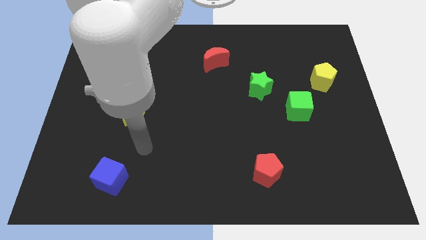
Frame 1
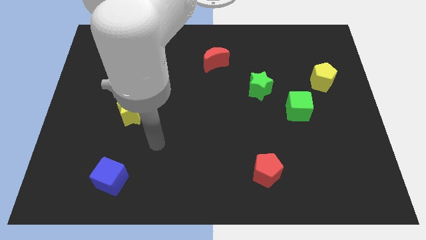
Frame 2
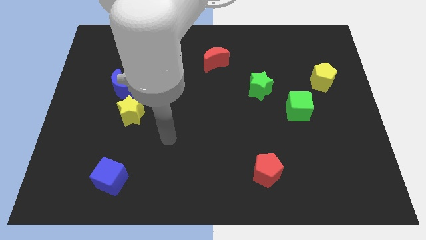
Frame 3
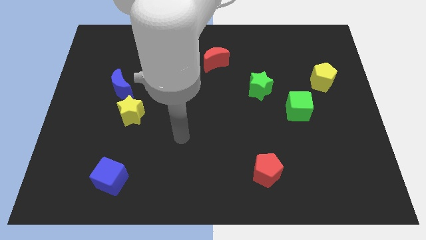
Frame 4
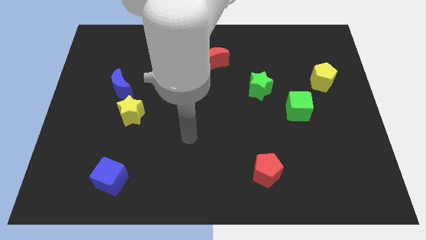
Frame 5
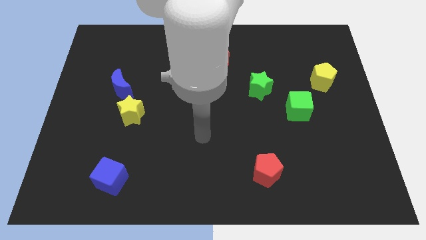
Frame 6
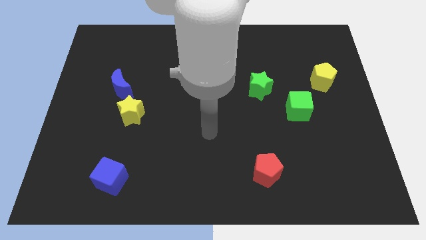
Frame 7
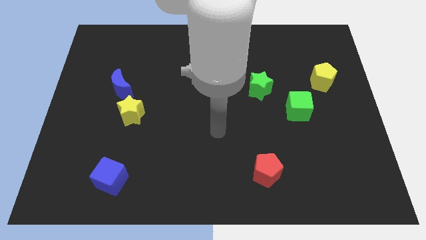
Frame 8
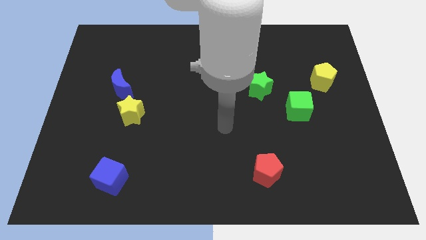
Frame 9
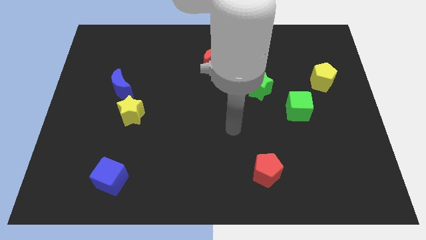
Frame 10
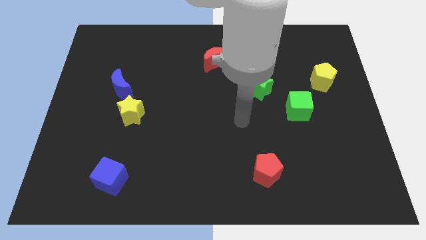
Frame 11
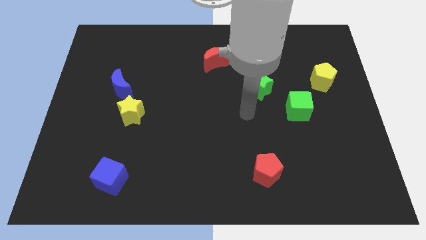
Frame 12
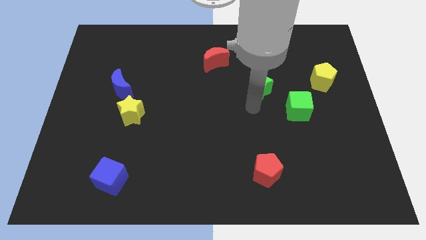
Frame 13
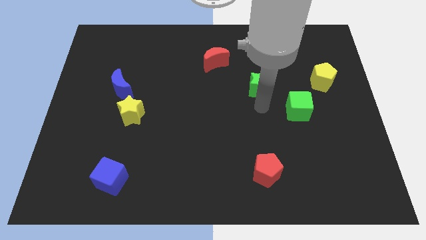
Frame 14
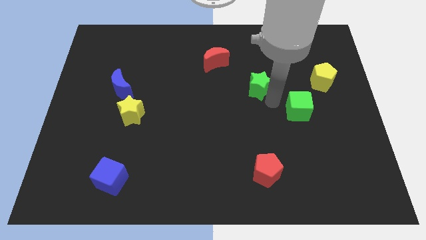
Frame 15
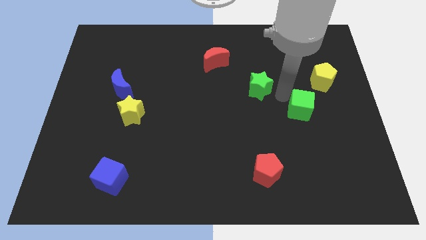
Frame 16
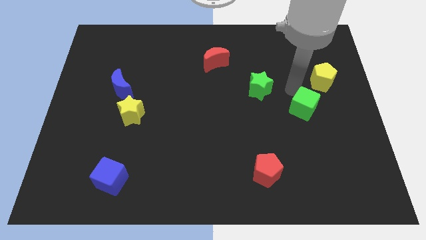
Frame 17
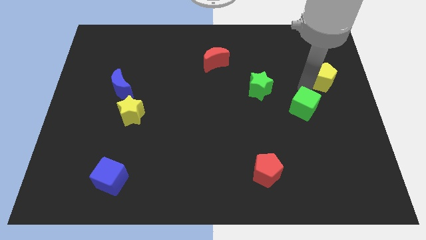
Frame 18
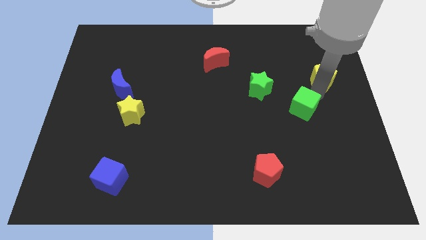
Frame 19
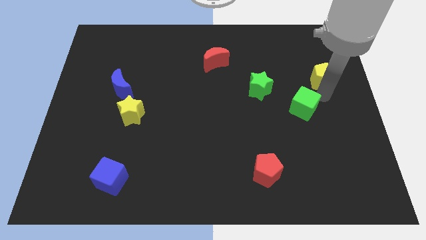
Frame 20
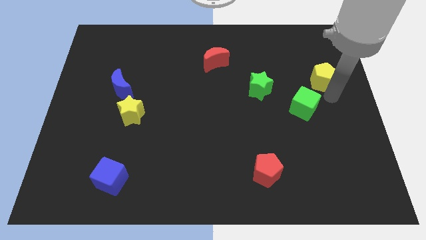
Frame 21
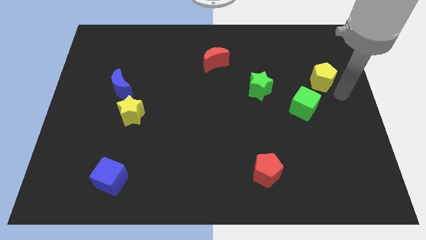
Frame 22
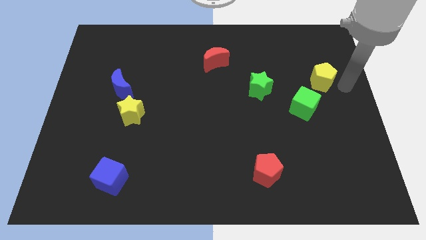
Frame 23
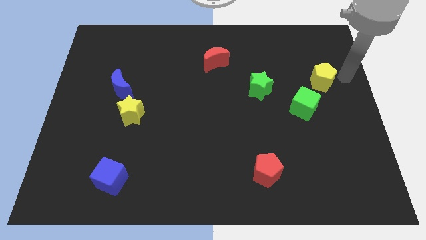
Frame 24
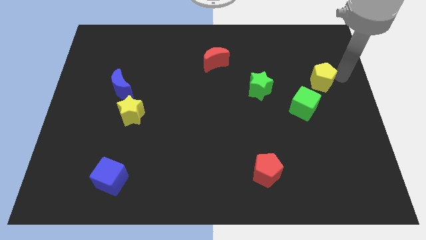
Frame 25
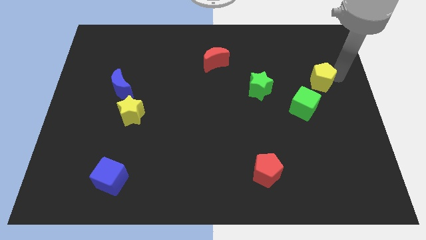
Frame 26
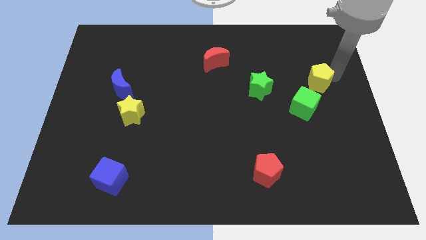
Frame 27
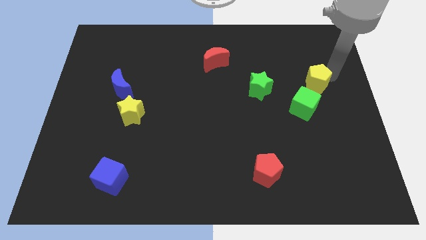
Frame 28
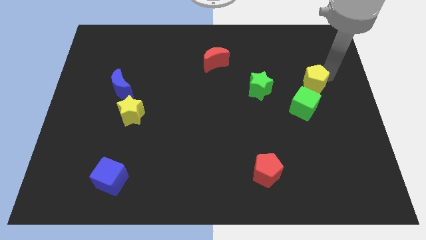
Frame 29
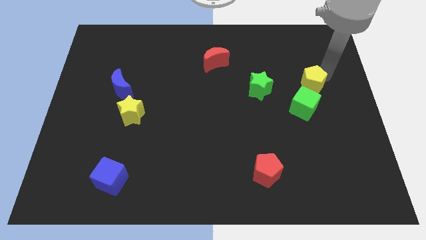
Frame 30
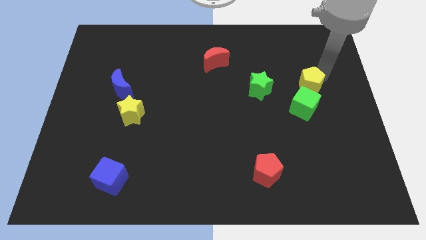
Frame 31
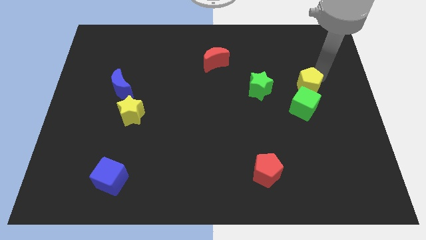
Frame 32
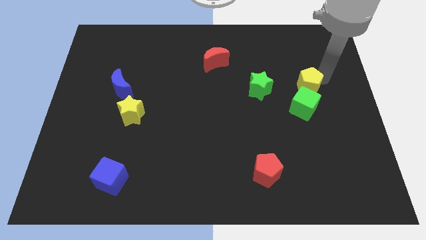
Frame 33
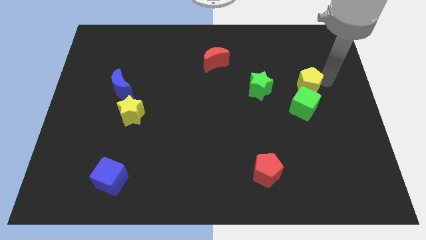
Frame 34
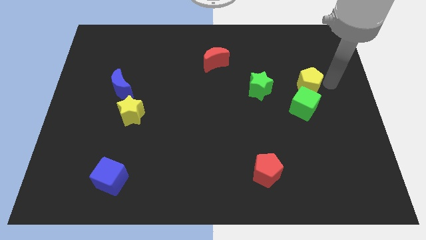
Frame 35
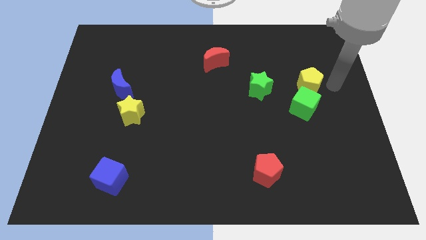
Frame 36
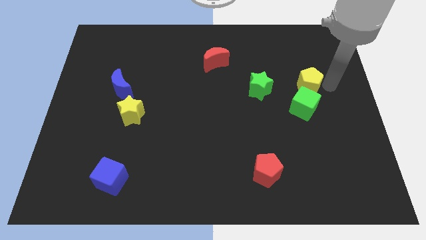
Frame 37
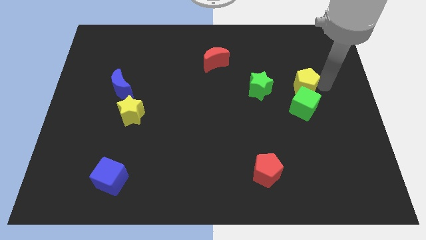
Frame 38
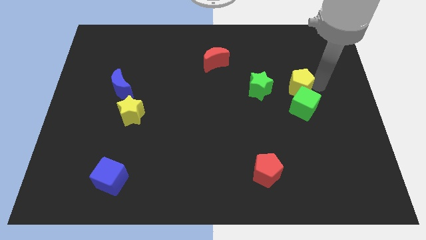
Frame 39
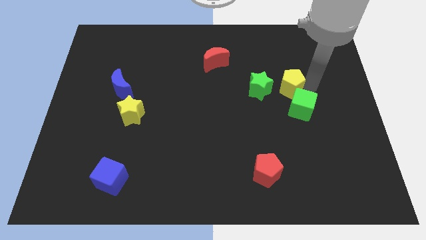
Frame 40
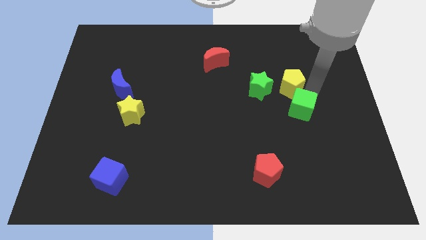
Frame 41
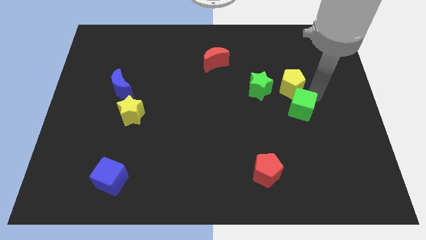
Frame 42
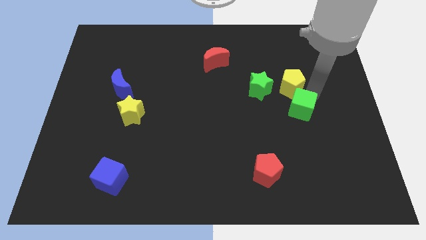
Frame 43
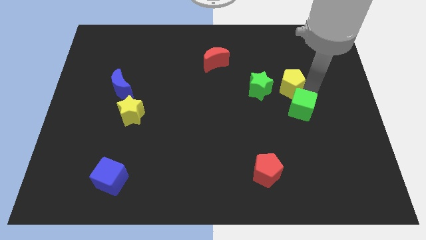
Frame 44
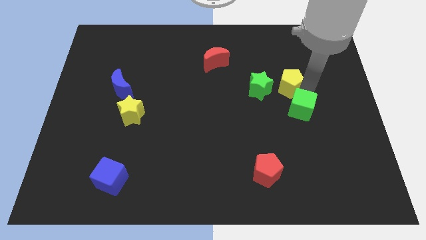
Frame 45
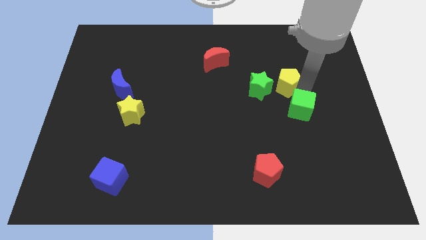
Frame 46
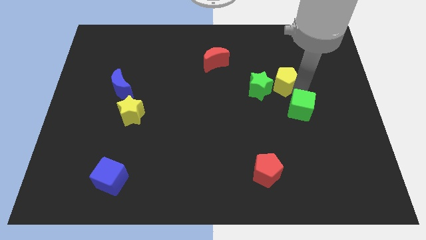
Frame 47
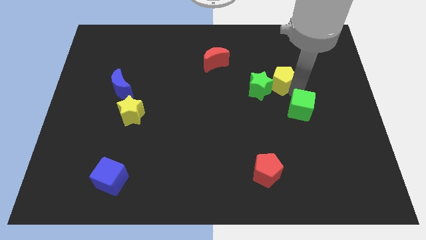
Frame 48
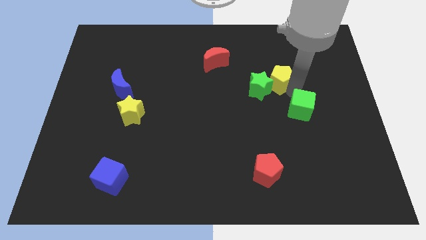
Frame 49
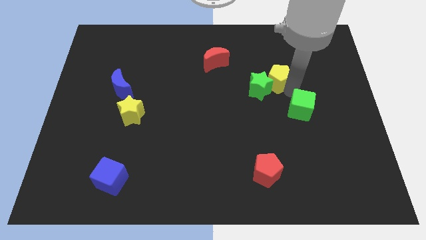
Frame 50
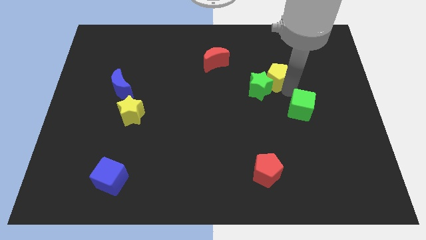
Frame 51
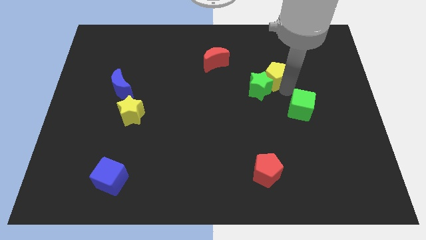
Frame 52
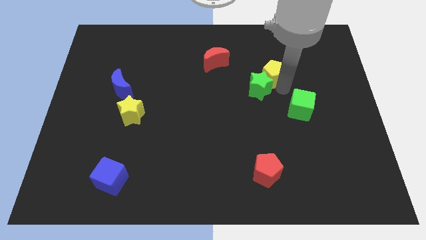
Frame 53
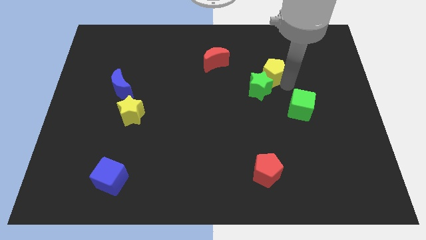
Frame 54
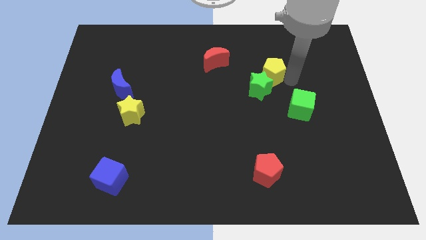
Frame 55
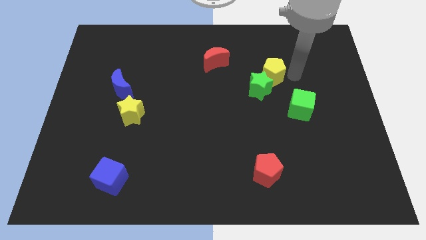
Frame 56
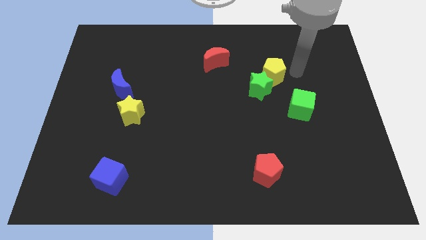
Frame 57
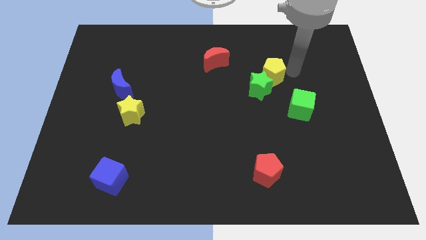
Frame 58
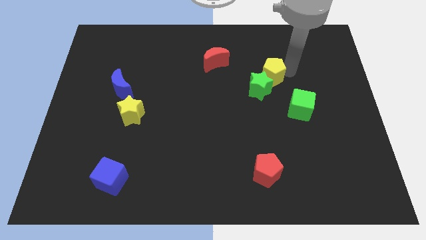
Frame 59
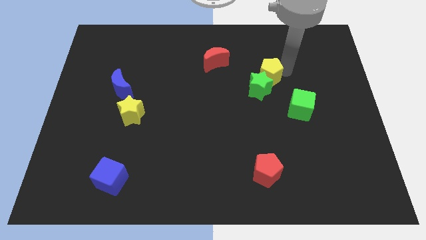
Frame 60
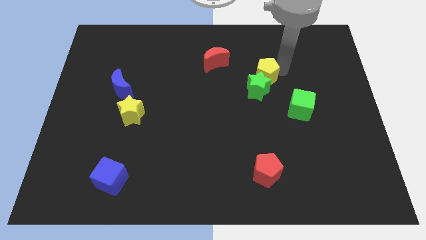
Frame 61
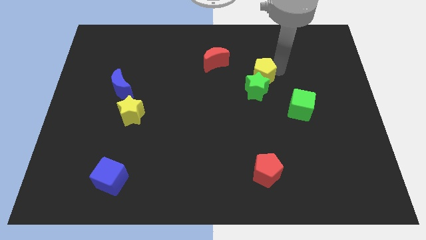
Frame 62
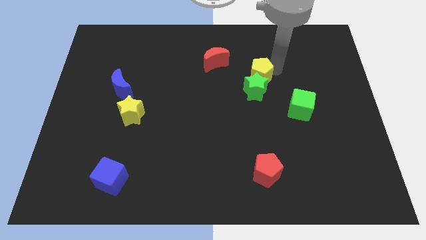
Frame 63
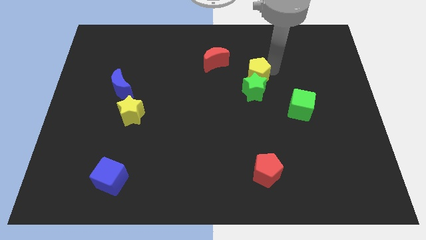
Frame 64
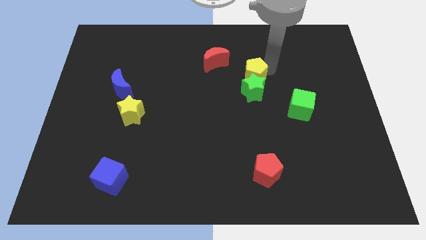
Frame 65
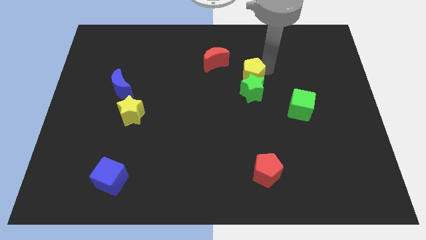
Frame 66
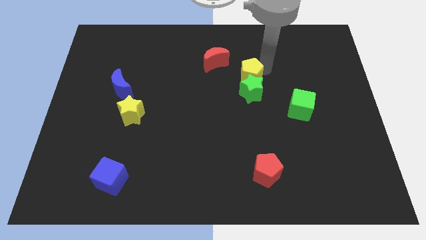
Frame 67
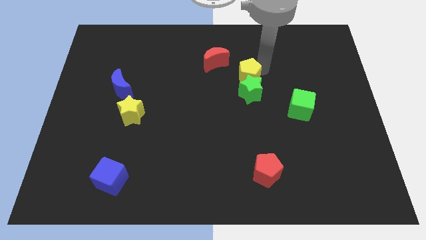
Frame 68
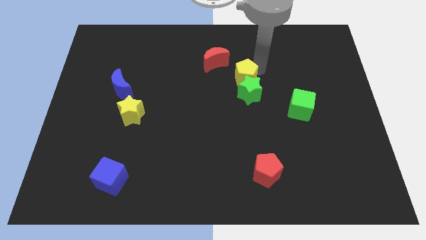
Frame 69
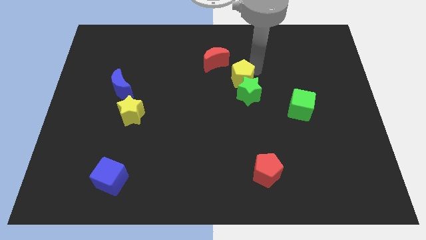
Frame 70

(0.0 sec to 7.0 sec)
push the yellow pentagon left

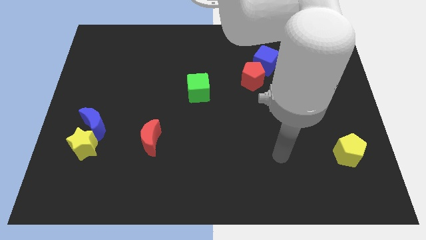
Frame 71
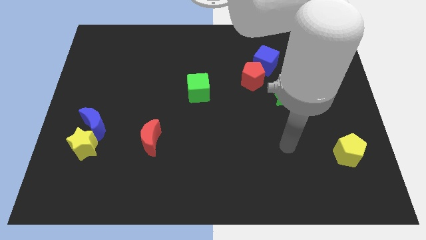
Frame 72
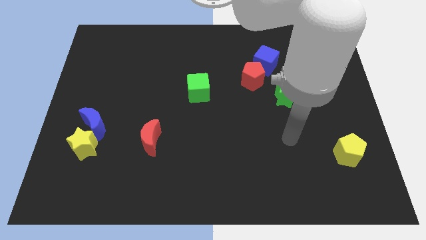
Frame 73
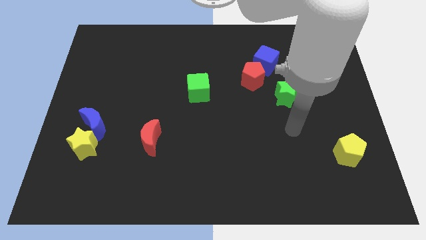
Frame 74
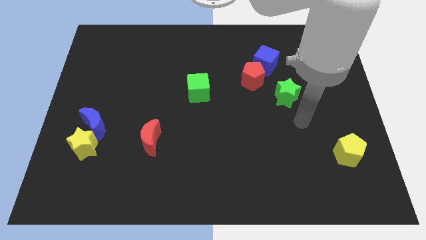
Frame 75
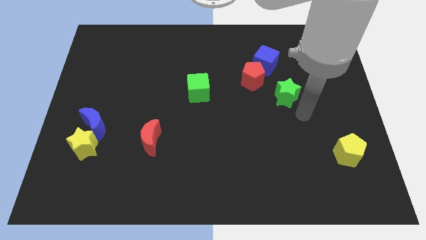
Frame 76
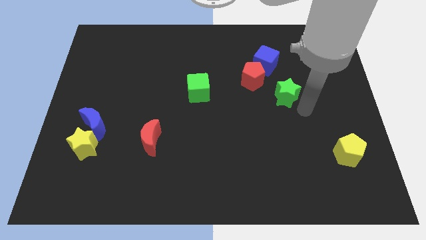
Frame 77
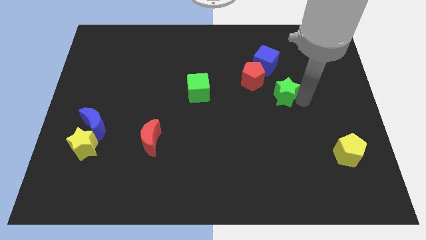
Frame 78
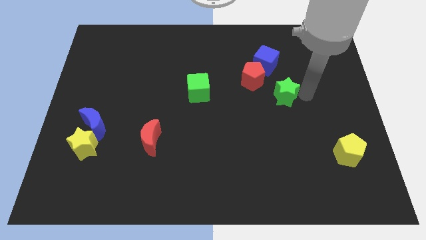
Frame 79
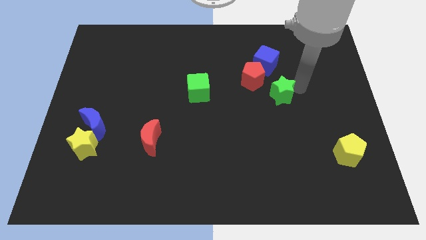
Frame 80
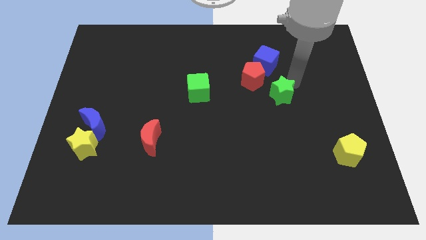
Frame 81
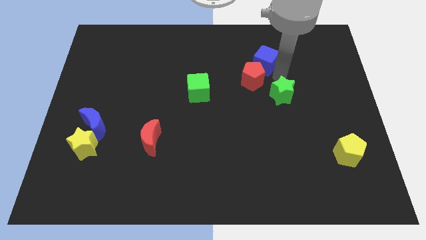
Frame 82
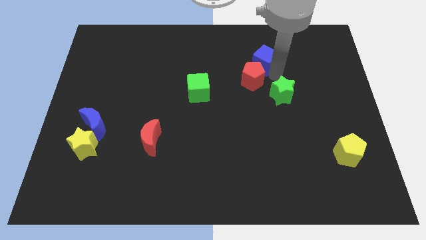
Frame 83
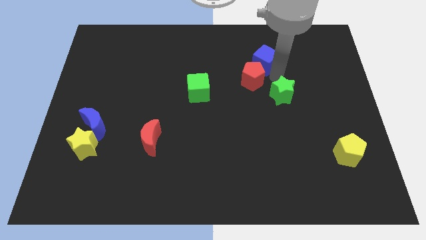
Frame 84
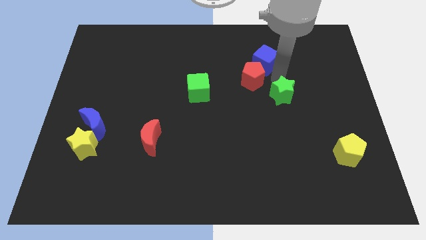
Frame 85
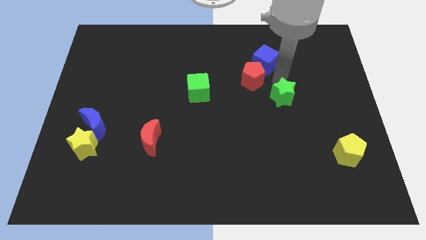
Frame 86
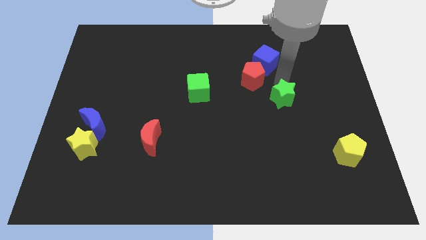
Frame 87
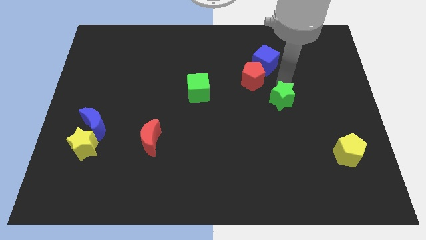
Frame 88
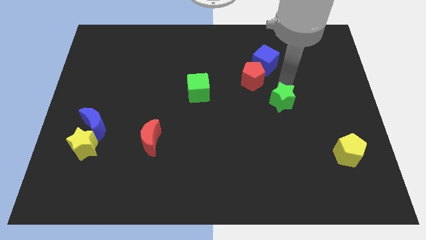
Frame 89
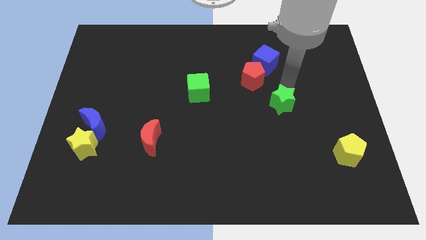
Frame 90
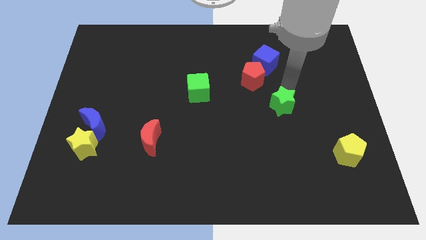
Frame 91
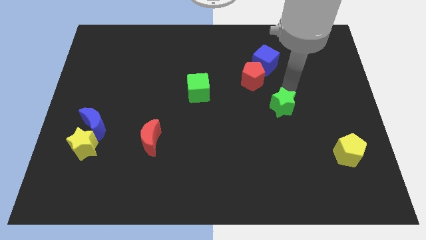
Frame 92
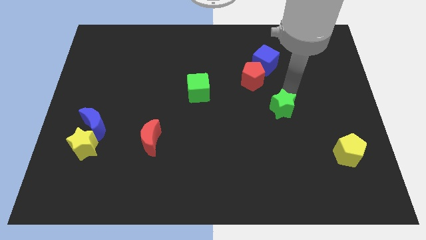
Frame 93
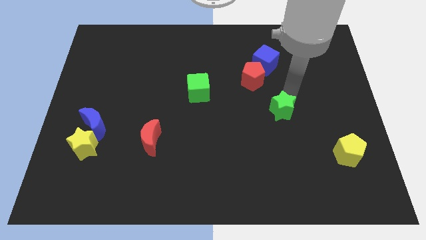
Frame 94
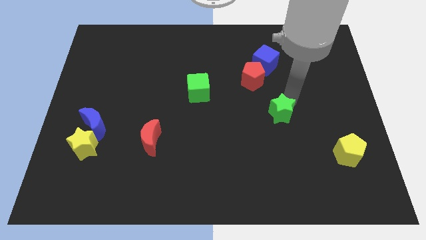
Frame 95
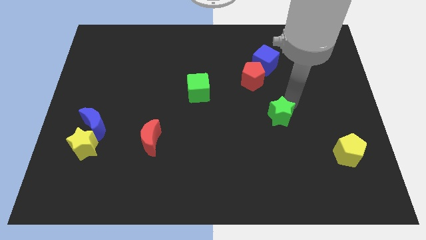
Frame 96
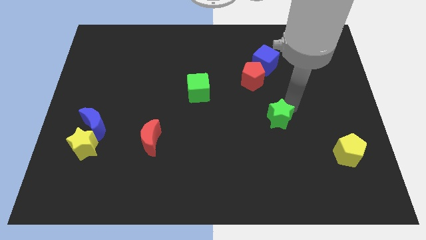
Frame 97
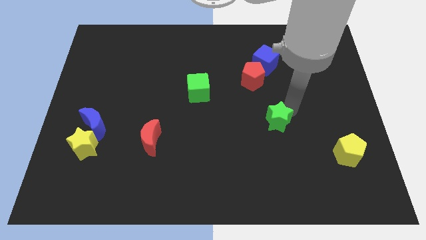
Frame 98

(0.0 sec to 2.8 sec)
move the green star a little bit downwards
